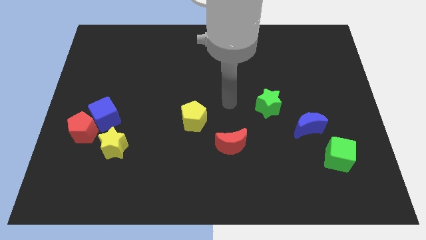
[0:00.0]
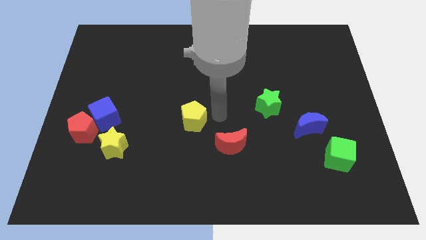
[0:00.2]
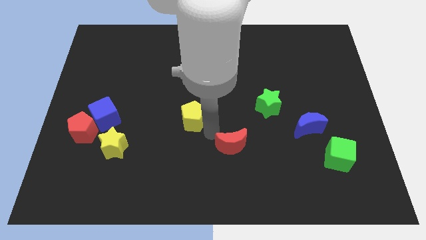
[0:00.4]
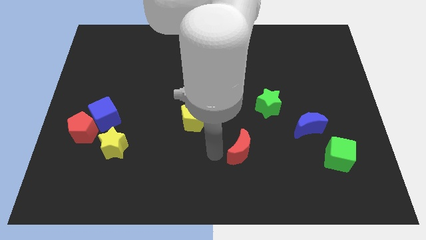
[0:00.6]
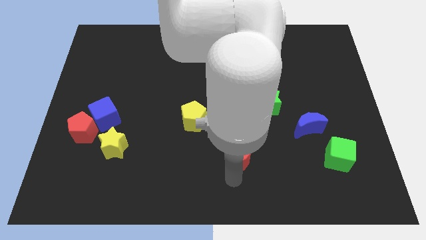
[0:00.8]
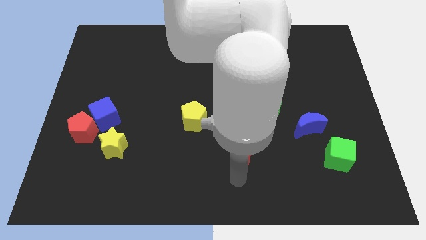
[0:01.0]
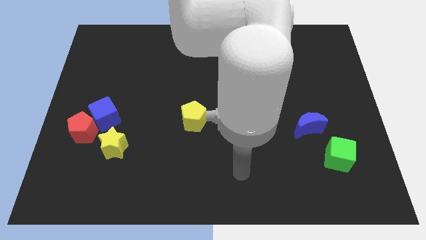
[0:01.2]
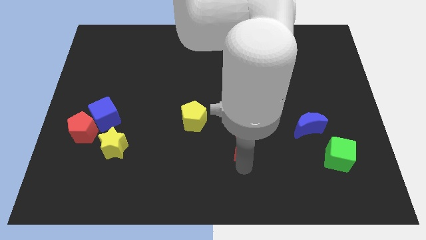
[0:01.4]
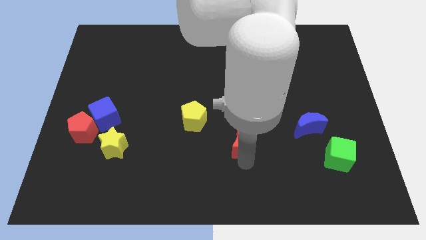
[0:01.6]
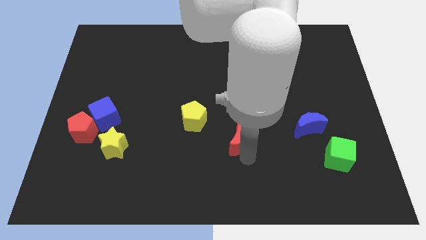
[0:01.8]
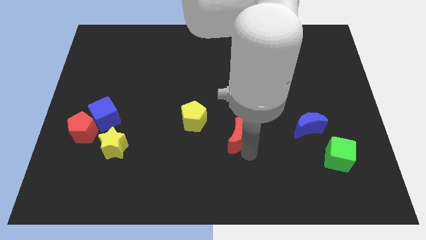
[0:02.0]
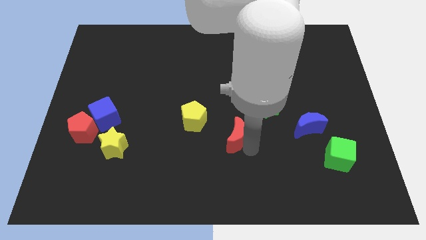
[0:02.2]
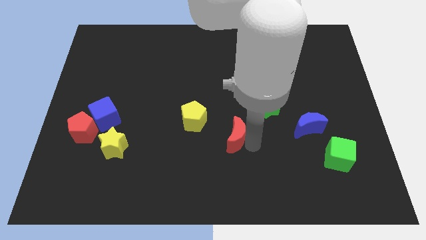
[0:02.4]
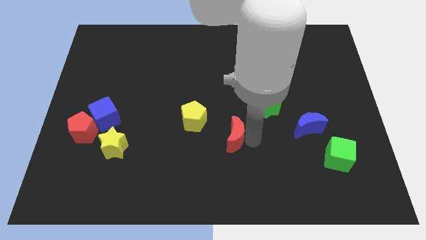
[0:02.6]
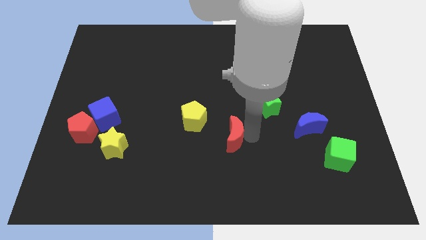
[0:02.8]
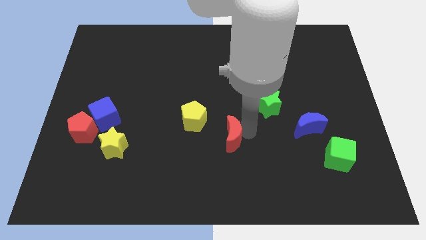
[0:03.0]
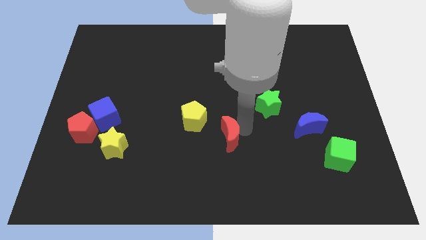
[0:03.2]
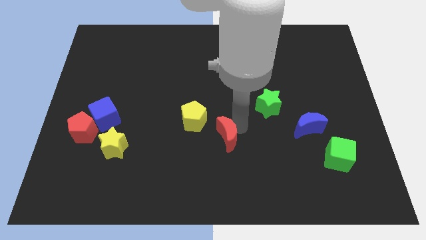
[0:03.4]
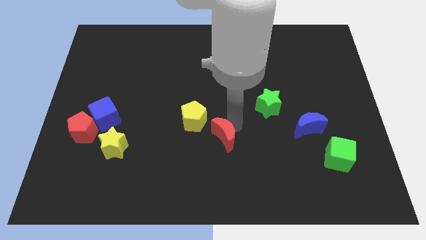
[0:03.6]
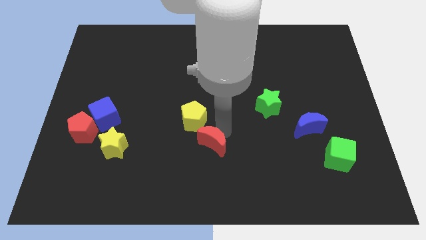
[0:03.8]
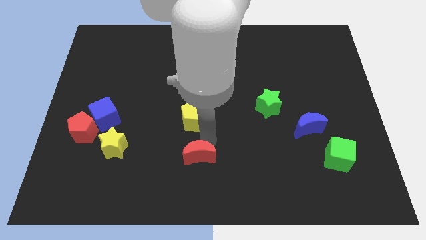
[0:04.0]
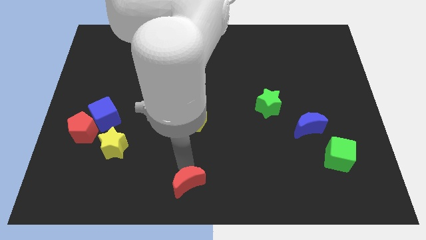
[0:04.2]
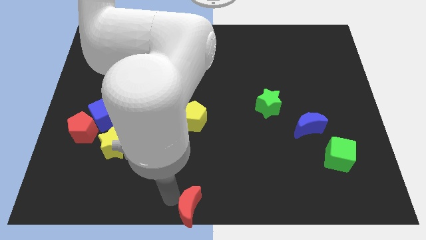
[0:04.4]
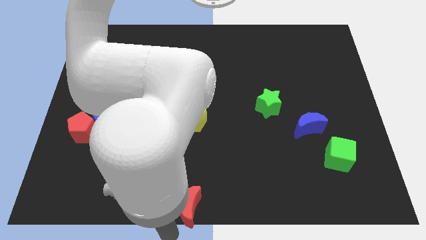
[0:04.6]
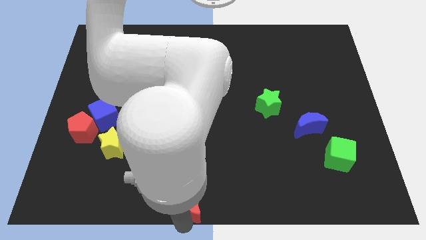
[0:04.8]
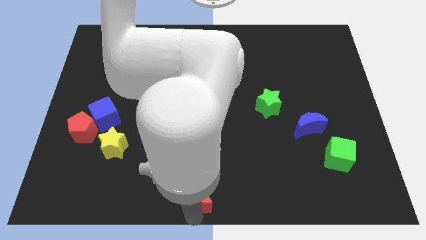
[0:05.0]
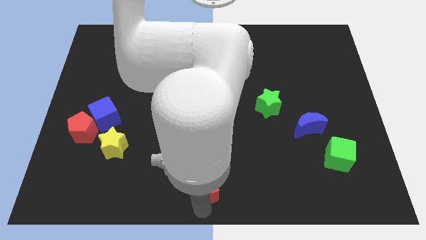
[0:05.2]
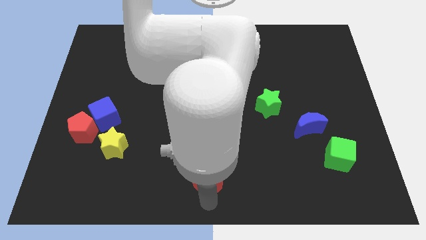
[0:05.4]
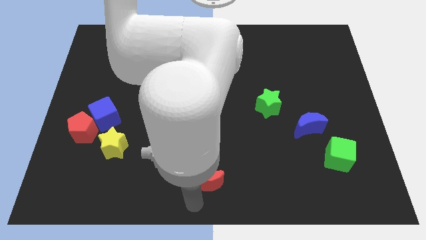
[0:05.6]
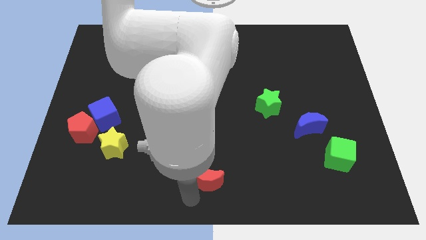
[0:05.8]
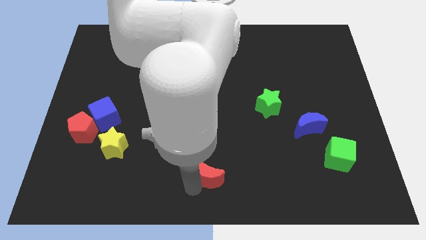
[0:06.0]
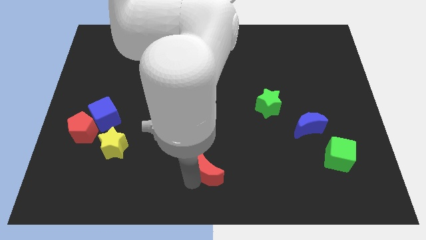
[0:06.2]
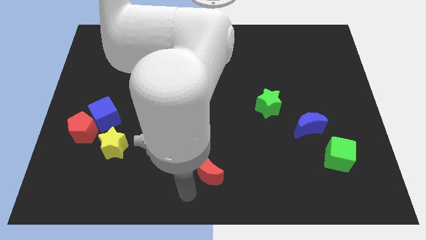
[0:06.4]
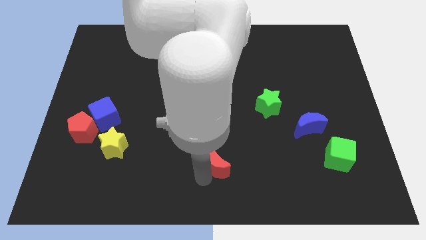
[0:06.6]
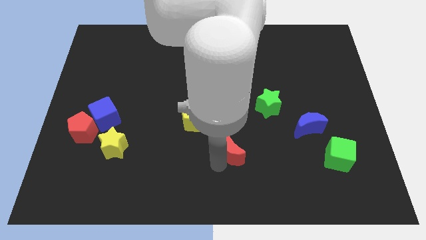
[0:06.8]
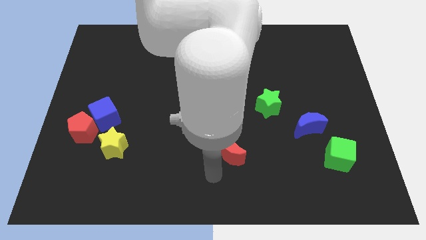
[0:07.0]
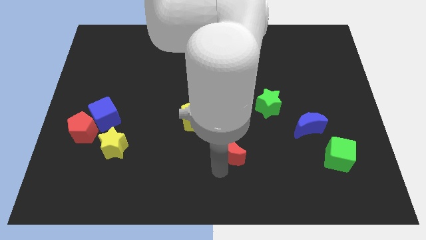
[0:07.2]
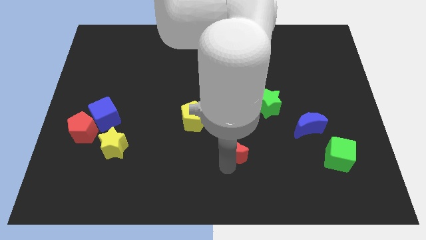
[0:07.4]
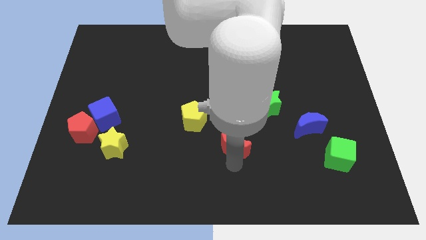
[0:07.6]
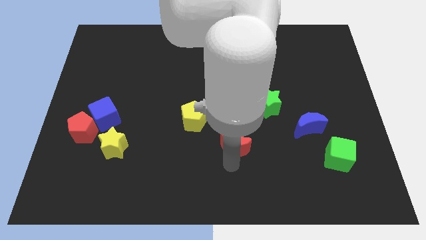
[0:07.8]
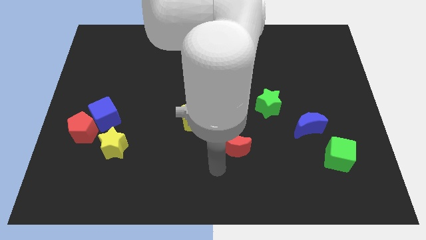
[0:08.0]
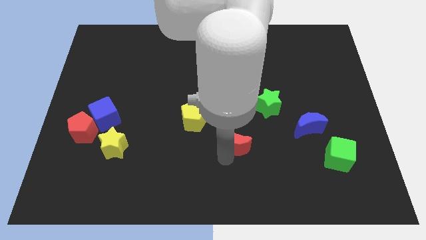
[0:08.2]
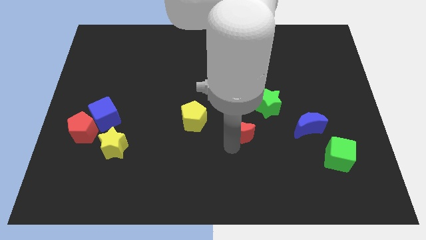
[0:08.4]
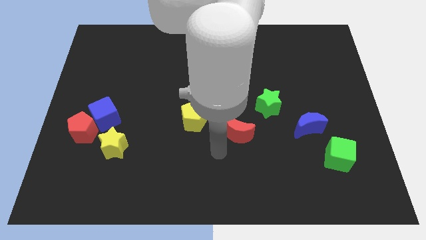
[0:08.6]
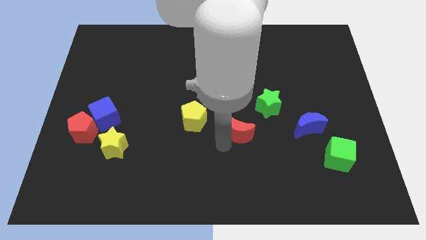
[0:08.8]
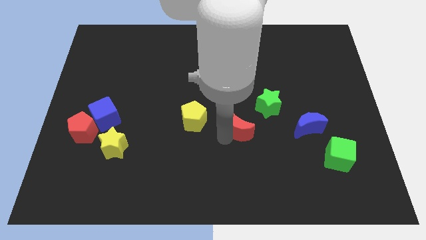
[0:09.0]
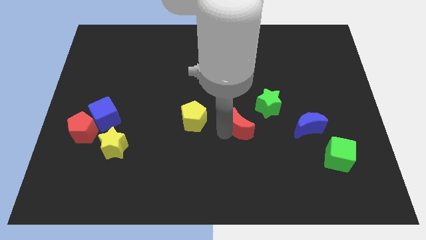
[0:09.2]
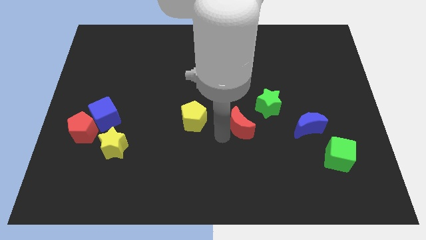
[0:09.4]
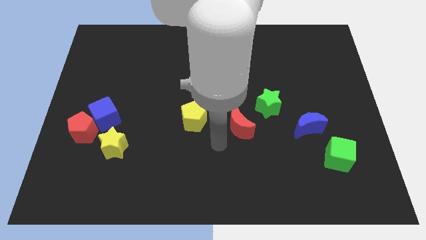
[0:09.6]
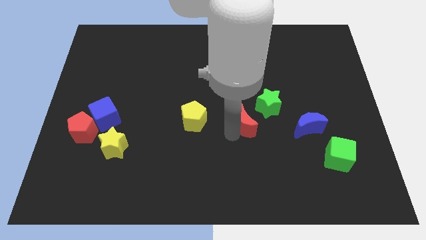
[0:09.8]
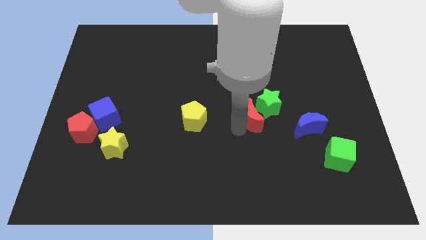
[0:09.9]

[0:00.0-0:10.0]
move the red moon towards the green star

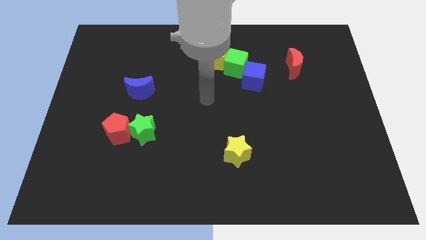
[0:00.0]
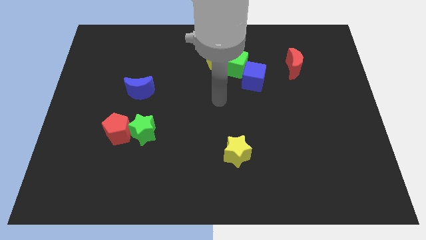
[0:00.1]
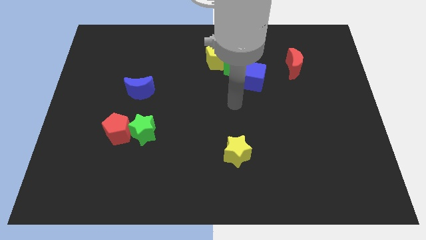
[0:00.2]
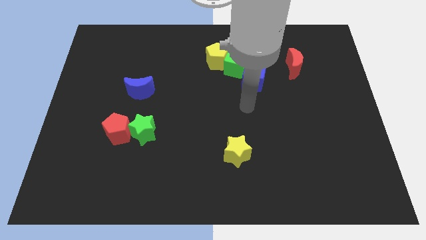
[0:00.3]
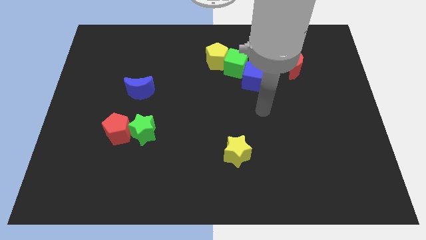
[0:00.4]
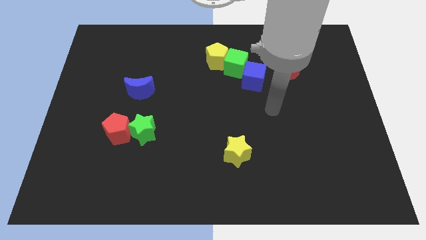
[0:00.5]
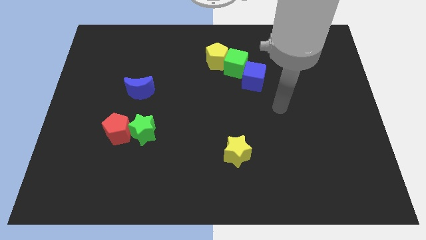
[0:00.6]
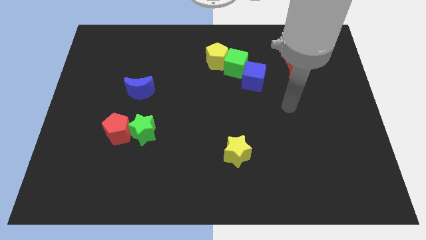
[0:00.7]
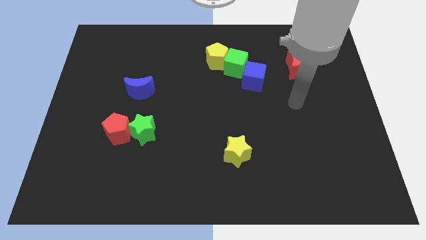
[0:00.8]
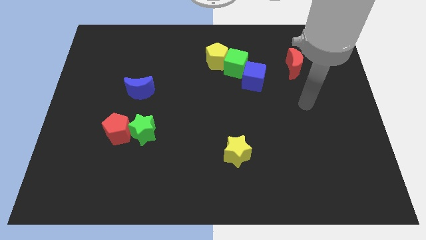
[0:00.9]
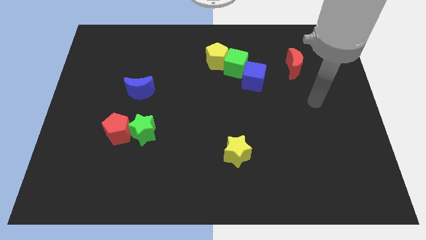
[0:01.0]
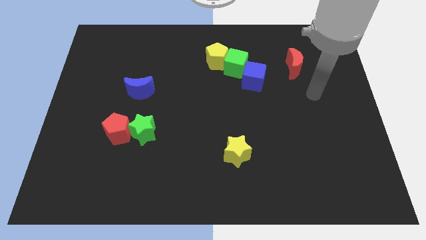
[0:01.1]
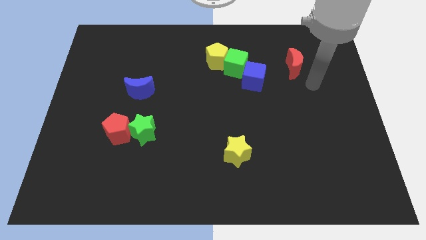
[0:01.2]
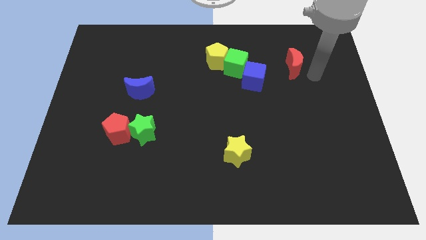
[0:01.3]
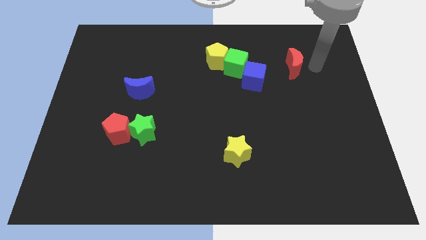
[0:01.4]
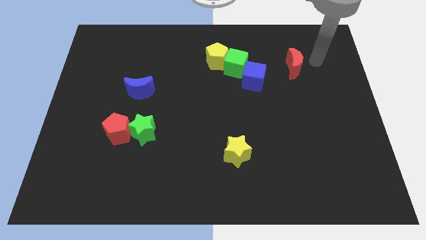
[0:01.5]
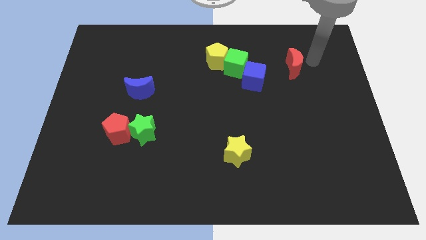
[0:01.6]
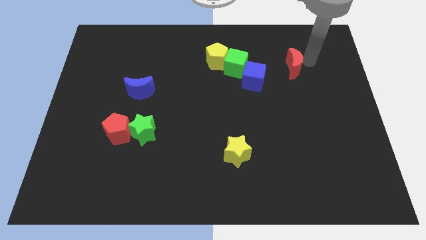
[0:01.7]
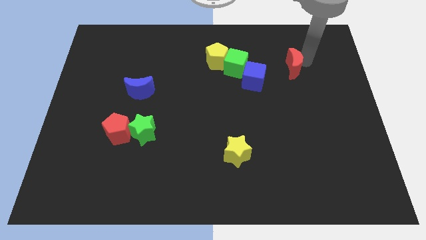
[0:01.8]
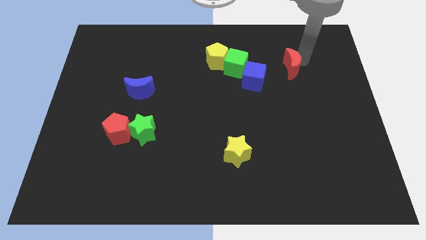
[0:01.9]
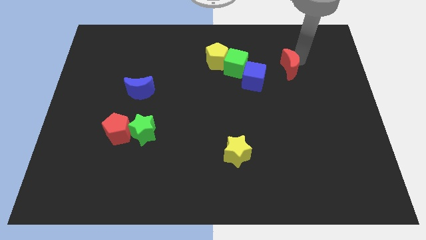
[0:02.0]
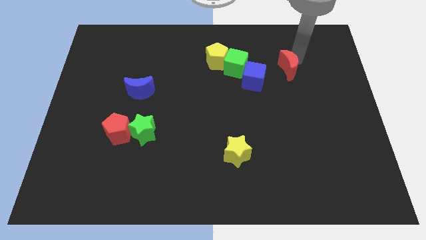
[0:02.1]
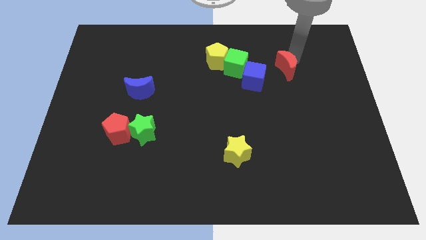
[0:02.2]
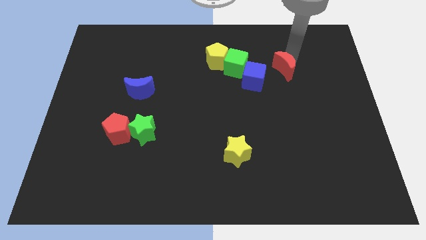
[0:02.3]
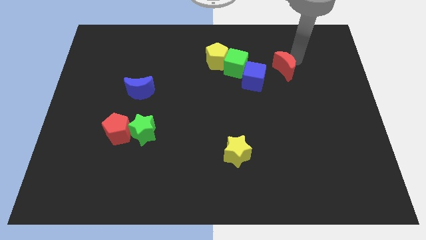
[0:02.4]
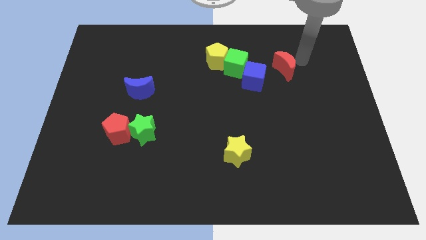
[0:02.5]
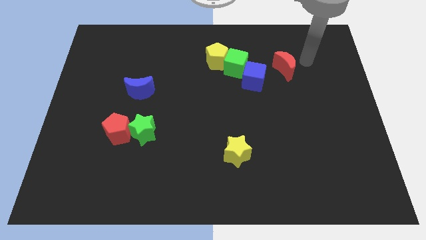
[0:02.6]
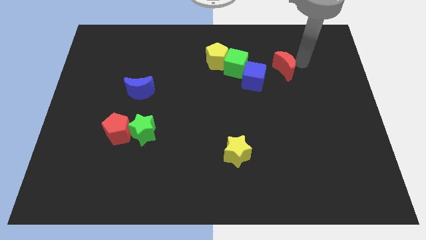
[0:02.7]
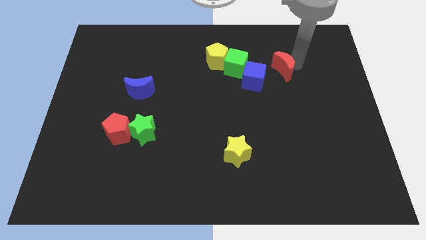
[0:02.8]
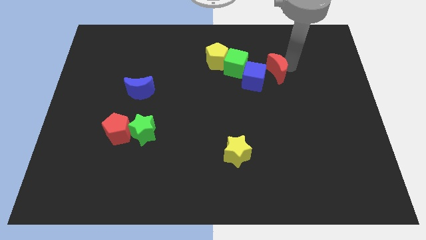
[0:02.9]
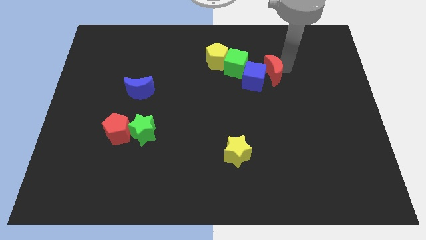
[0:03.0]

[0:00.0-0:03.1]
move the red moon next to the blue cube
